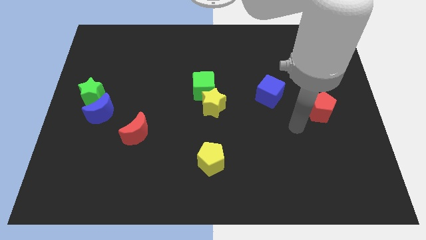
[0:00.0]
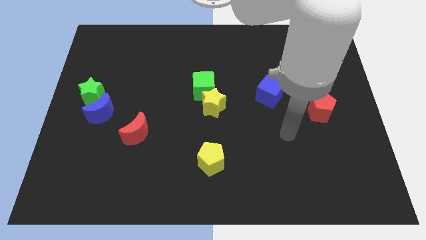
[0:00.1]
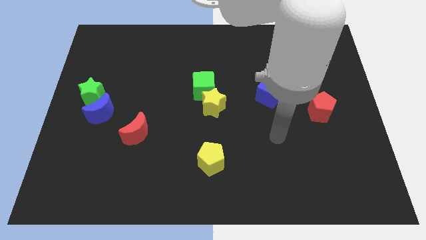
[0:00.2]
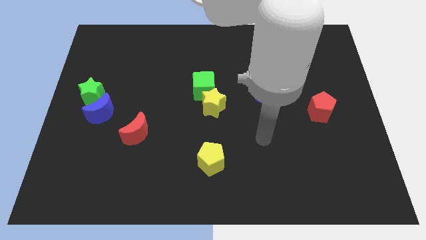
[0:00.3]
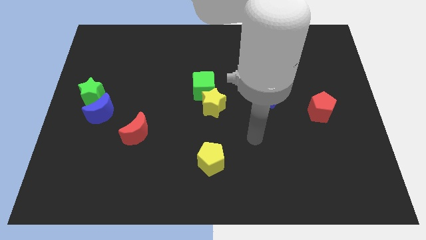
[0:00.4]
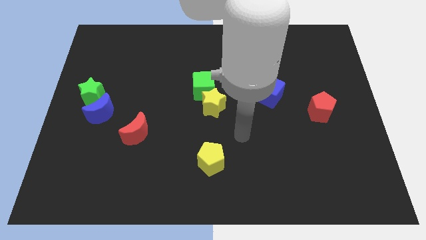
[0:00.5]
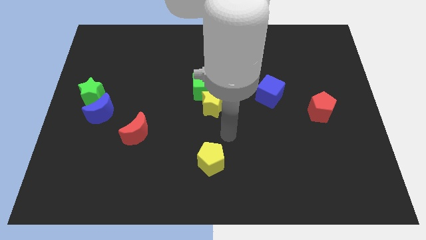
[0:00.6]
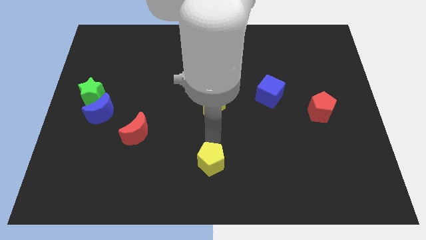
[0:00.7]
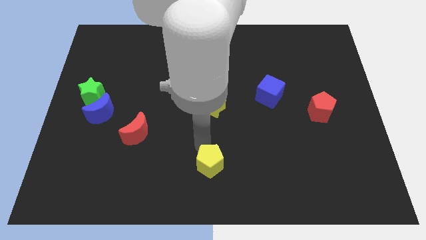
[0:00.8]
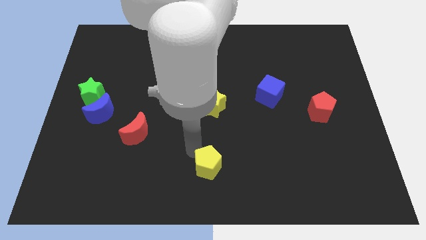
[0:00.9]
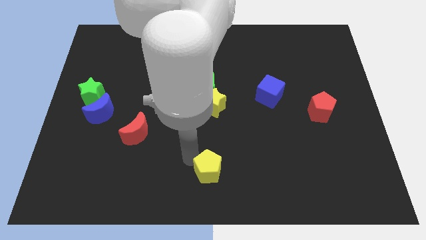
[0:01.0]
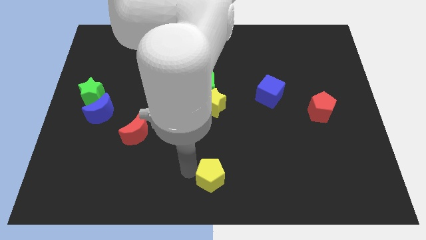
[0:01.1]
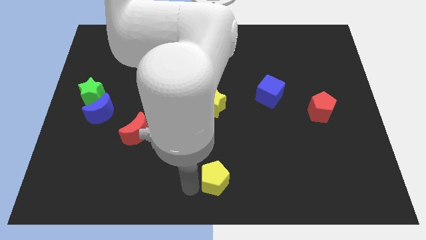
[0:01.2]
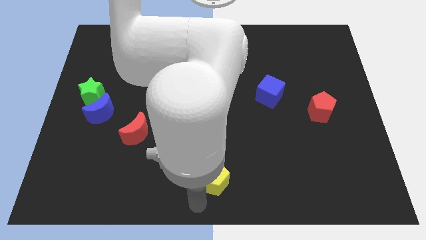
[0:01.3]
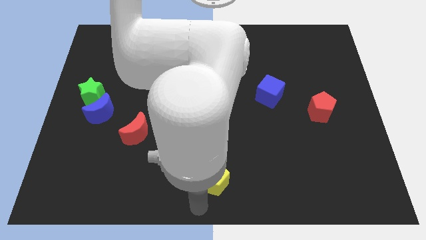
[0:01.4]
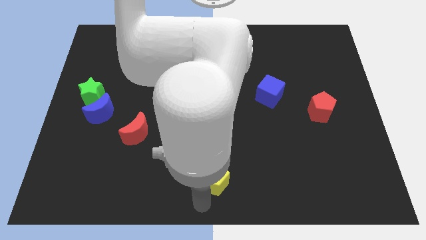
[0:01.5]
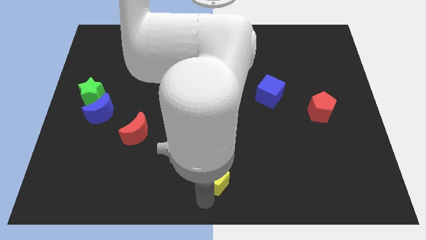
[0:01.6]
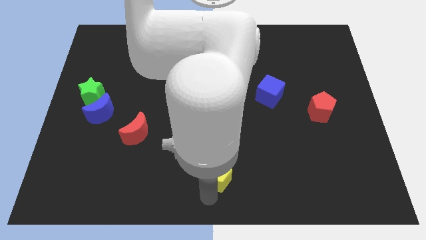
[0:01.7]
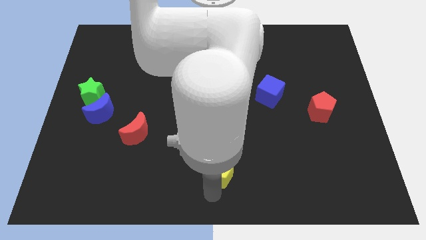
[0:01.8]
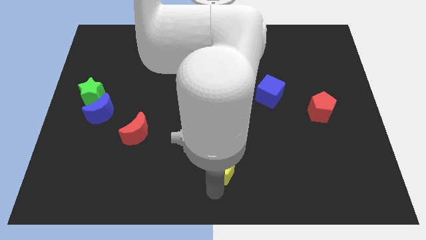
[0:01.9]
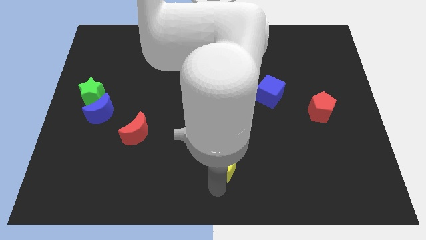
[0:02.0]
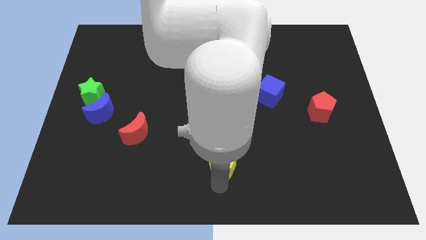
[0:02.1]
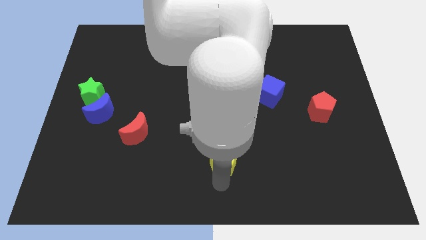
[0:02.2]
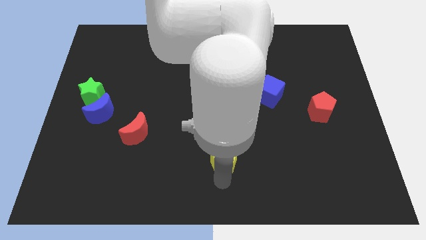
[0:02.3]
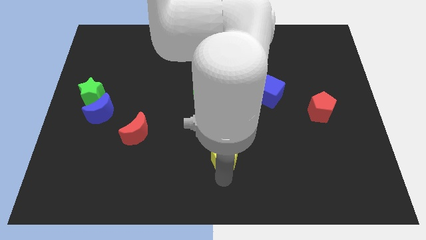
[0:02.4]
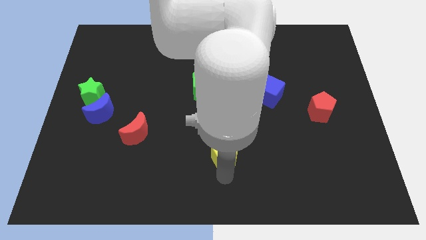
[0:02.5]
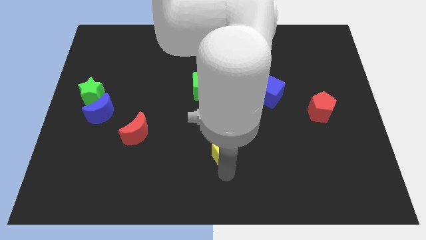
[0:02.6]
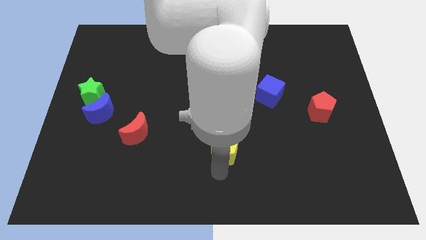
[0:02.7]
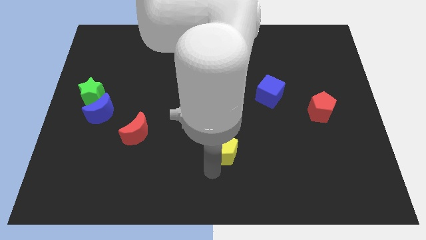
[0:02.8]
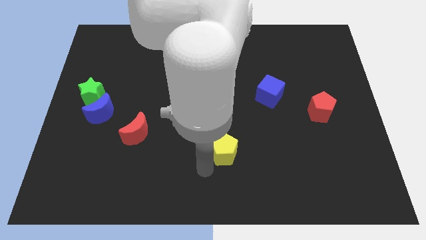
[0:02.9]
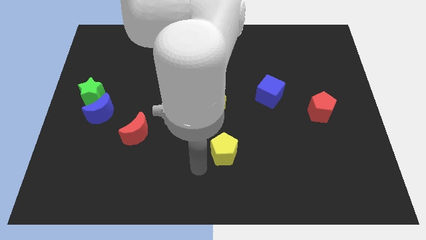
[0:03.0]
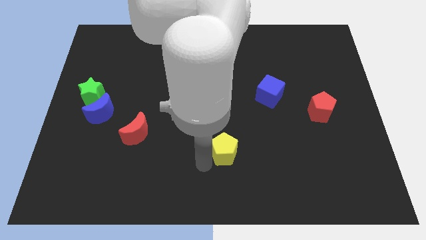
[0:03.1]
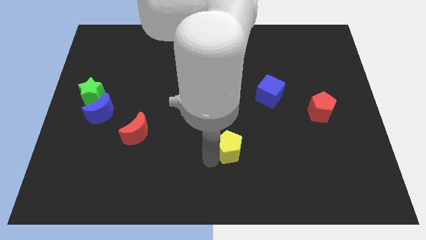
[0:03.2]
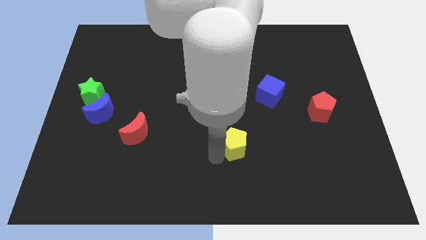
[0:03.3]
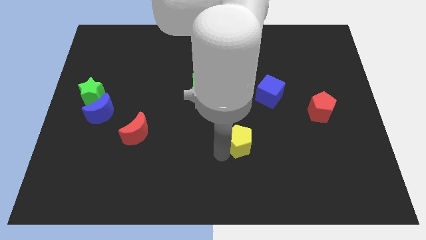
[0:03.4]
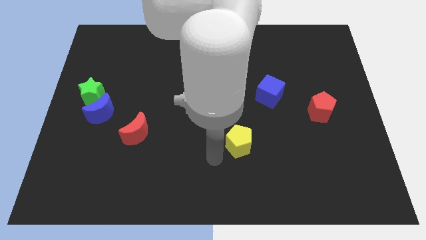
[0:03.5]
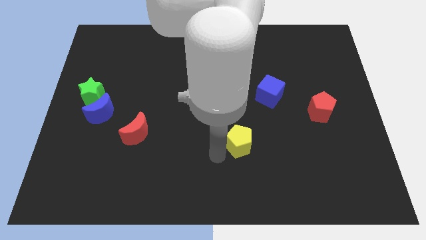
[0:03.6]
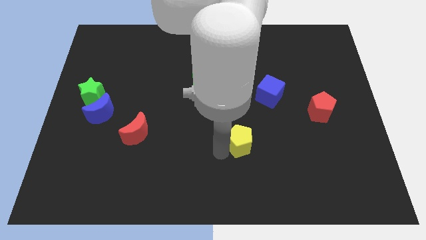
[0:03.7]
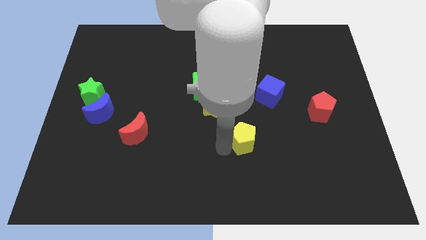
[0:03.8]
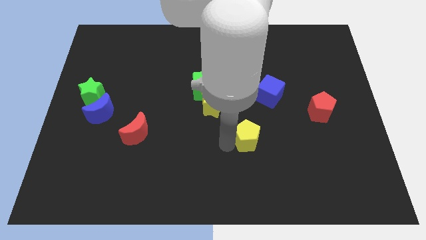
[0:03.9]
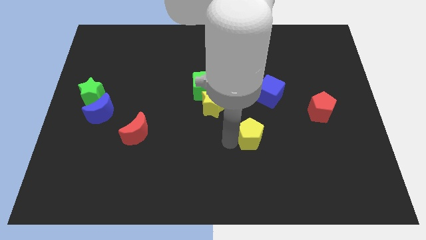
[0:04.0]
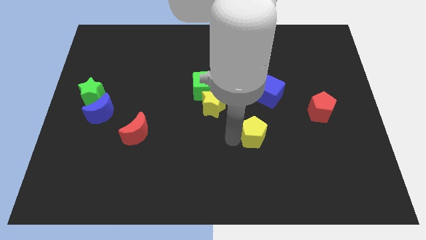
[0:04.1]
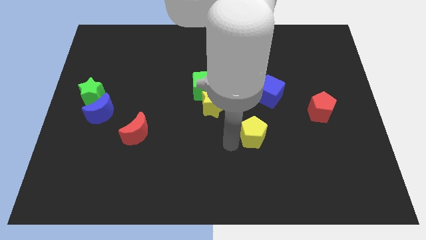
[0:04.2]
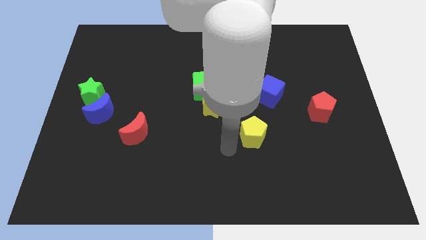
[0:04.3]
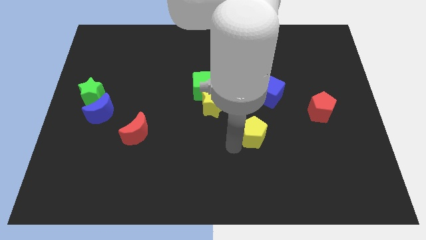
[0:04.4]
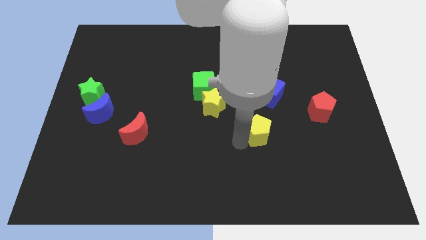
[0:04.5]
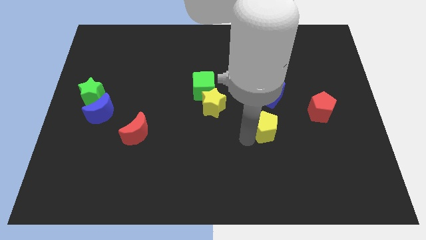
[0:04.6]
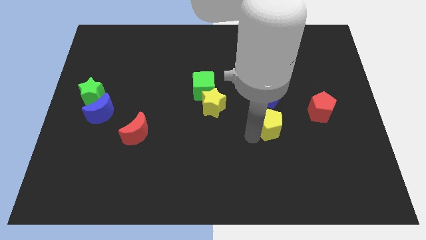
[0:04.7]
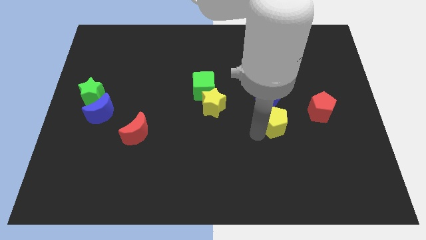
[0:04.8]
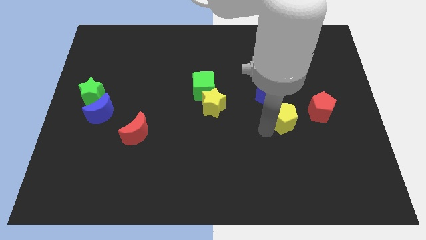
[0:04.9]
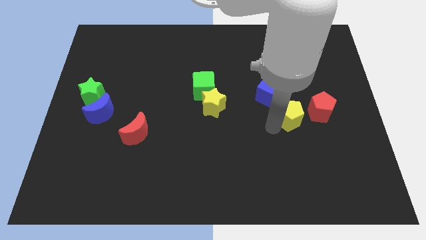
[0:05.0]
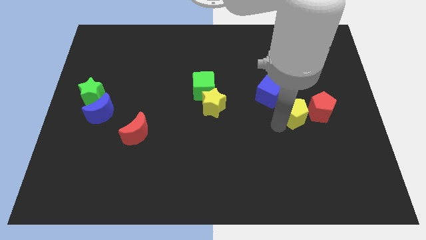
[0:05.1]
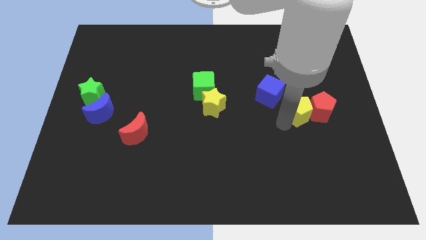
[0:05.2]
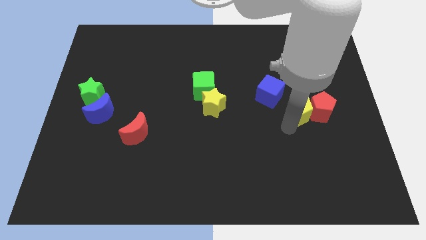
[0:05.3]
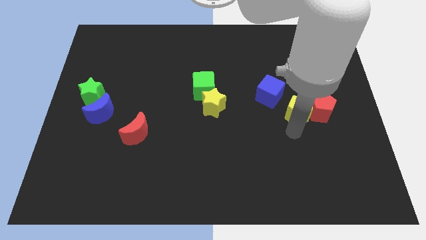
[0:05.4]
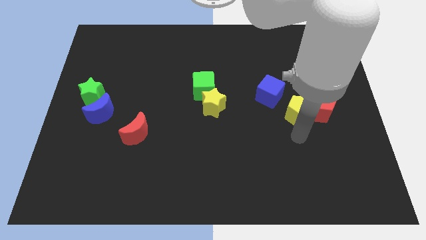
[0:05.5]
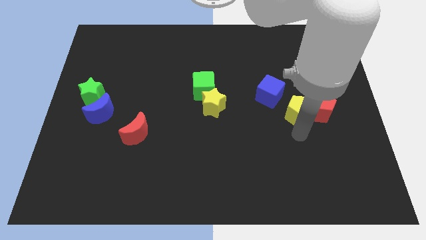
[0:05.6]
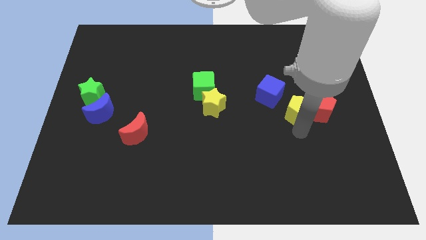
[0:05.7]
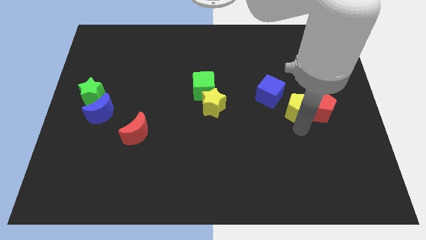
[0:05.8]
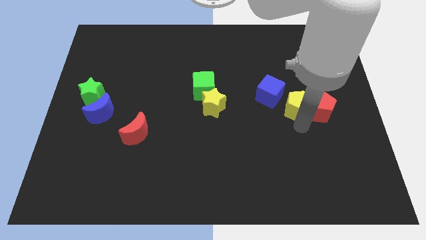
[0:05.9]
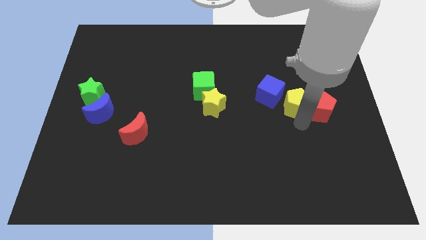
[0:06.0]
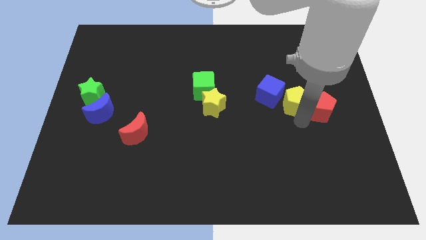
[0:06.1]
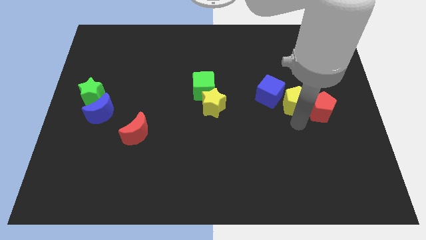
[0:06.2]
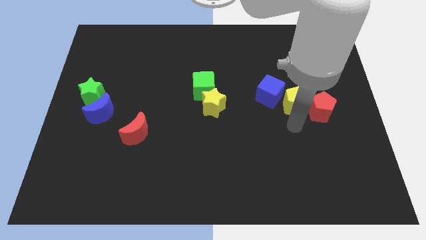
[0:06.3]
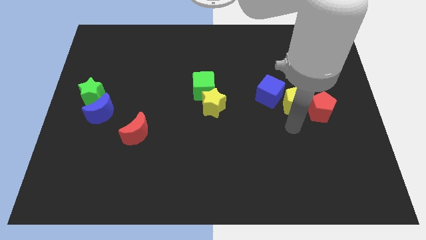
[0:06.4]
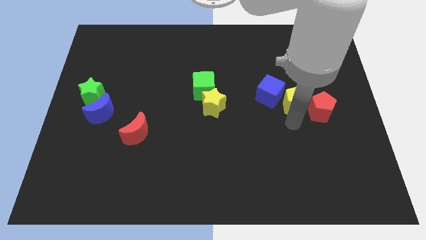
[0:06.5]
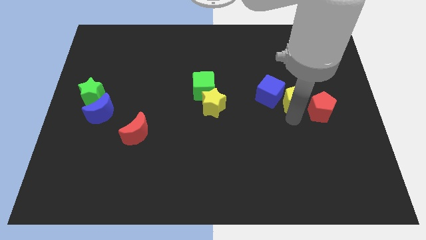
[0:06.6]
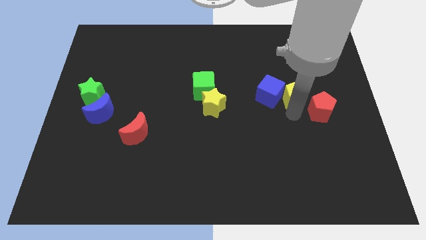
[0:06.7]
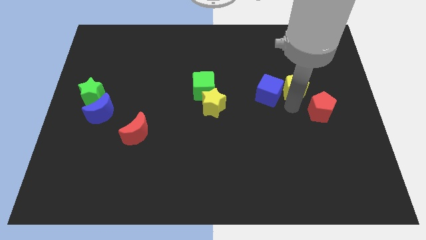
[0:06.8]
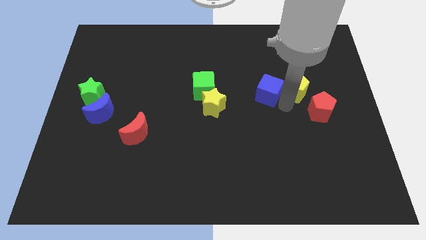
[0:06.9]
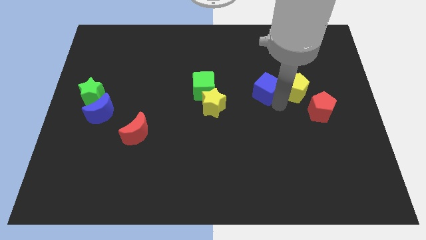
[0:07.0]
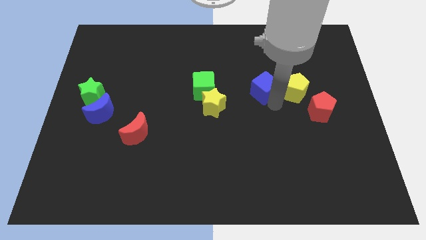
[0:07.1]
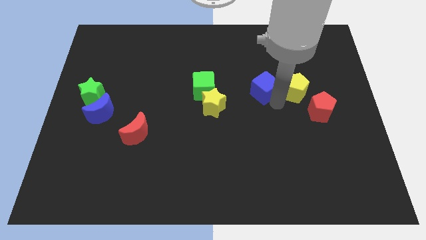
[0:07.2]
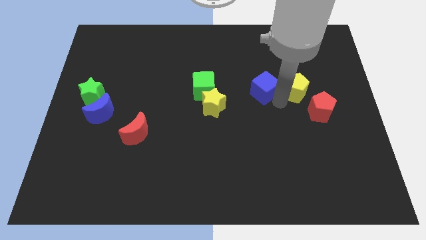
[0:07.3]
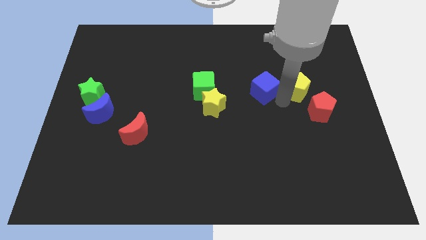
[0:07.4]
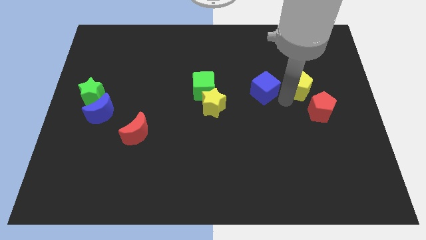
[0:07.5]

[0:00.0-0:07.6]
push the yellow pentagon above the red pentagon
